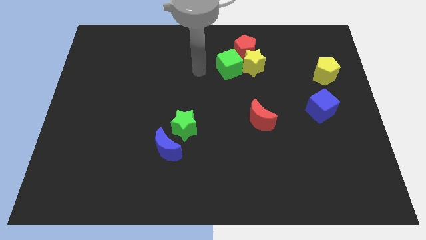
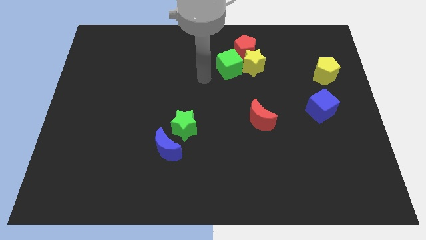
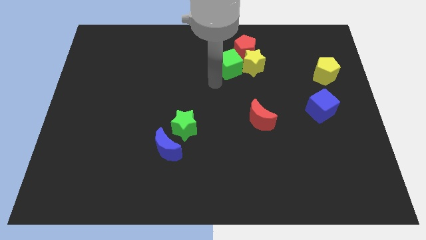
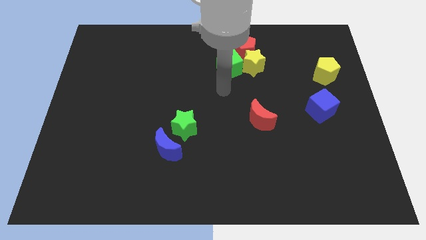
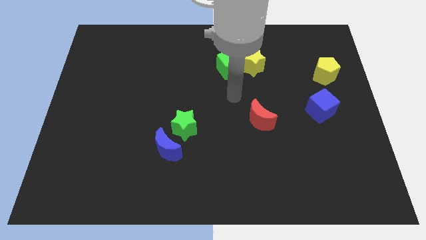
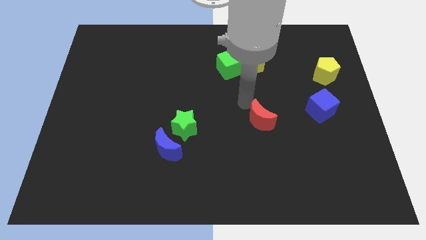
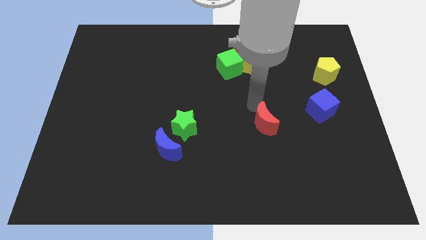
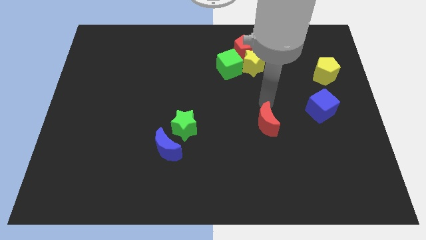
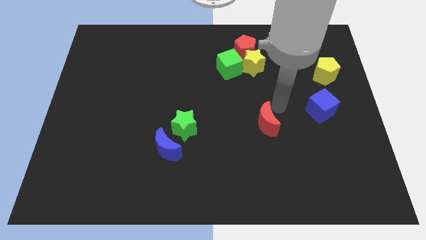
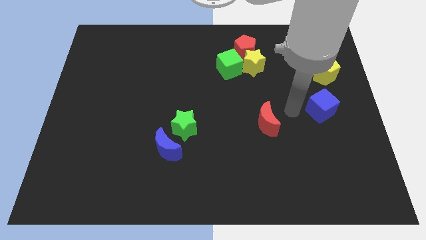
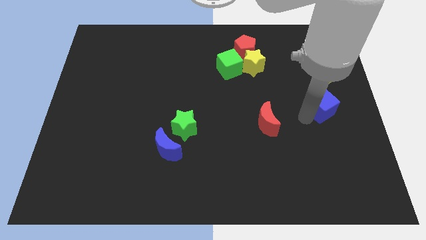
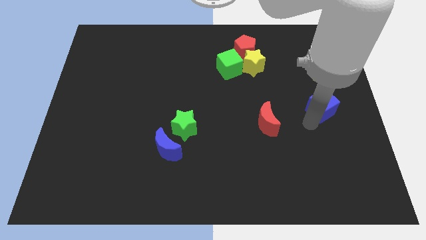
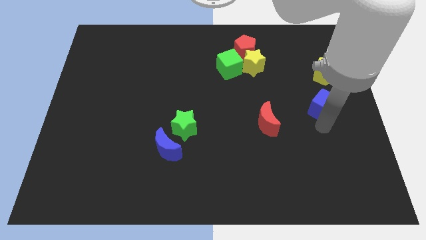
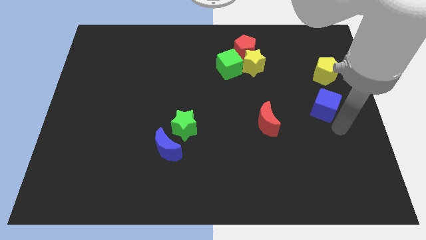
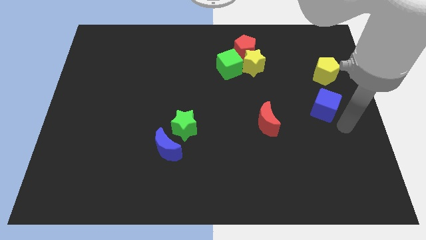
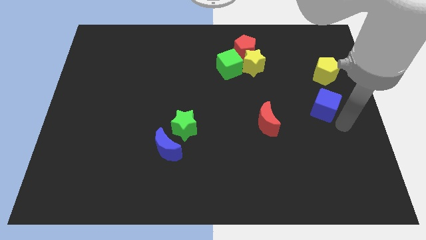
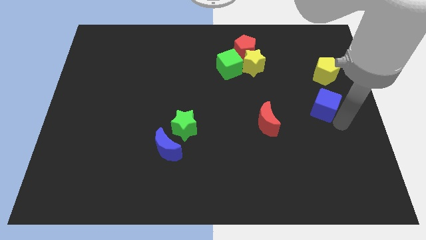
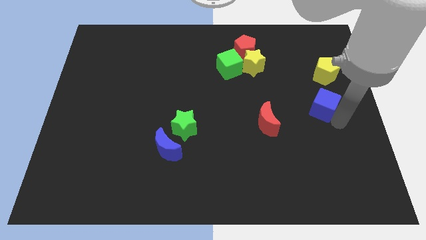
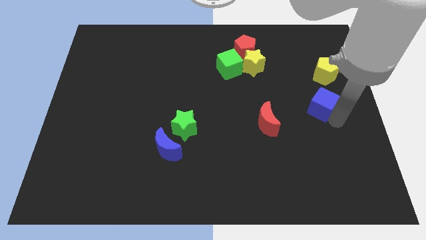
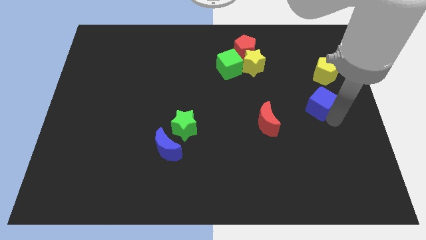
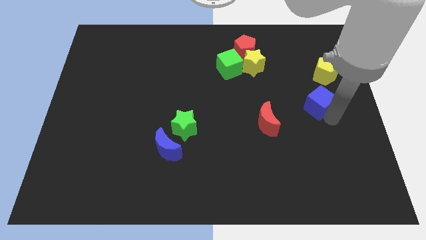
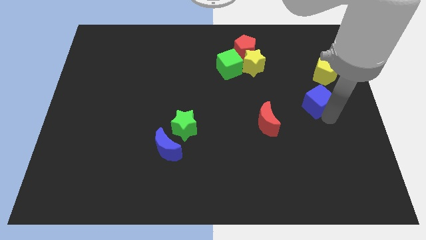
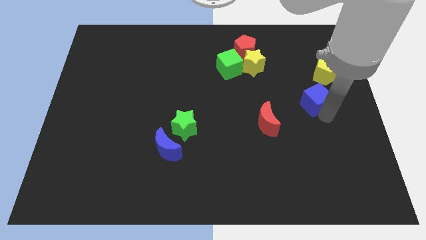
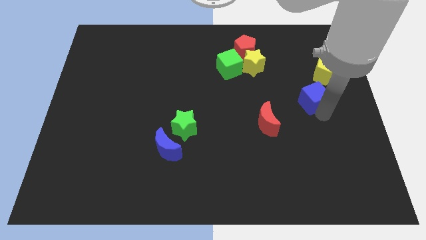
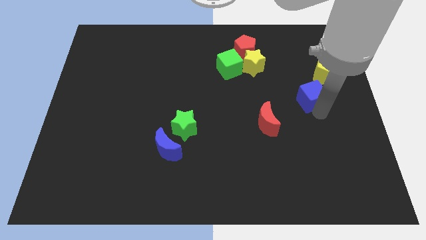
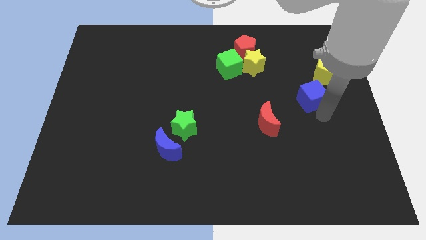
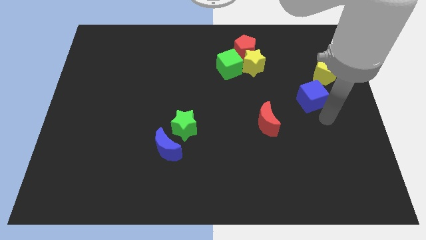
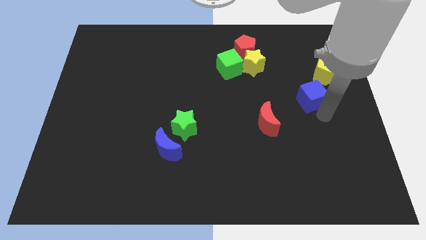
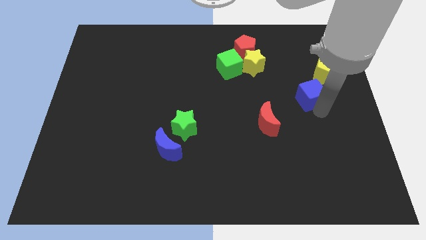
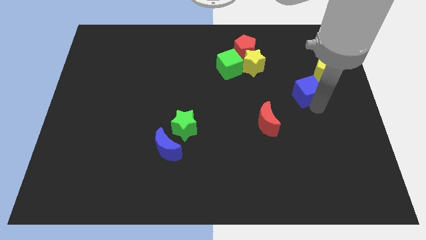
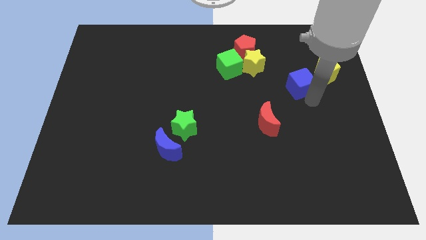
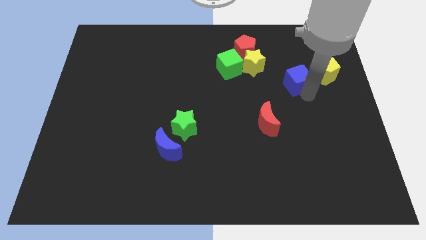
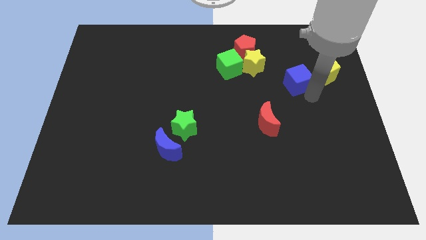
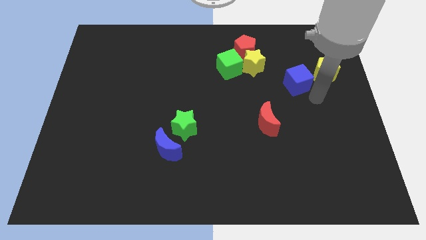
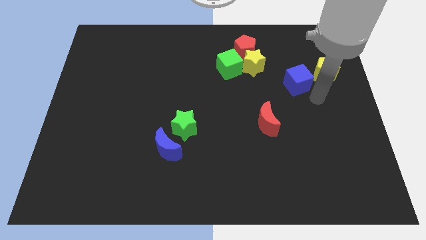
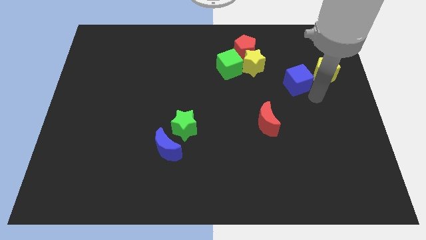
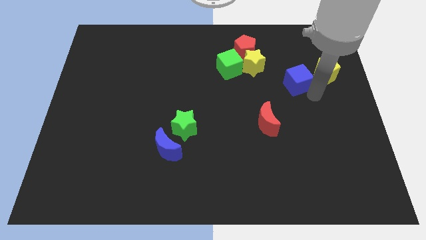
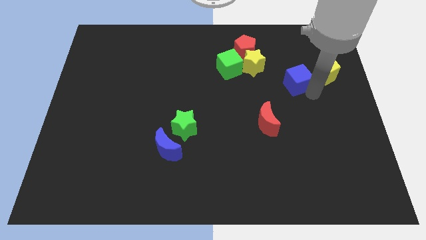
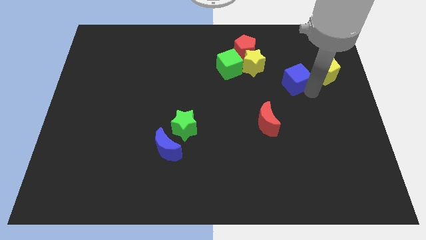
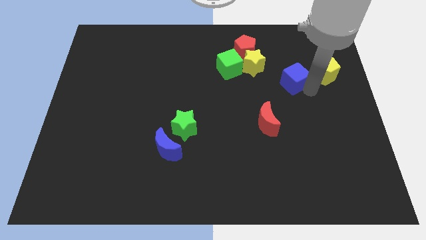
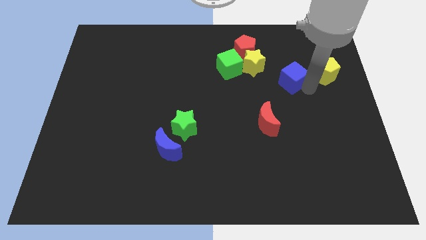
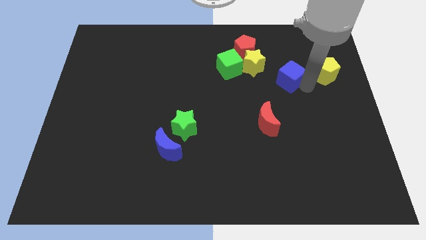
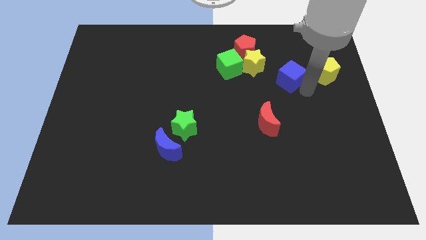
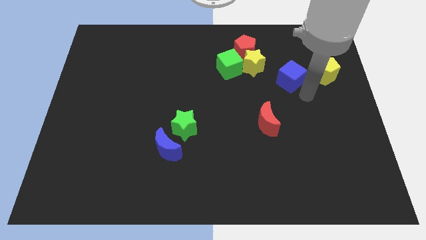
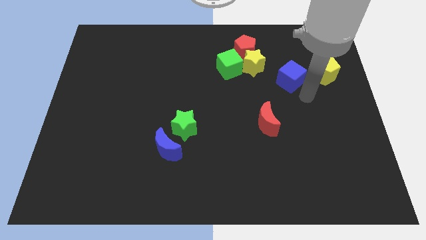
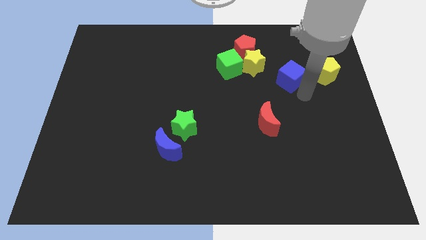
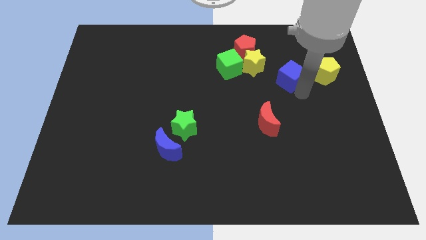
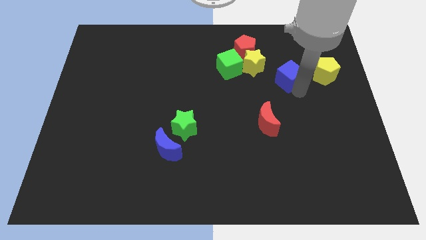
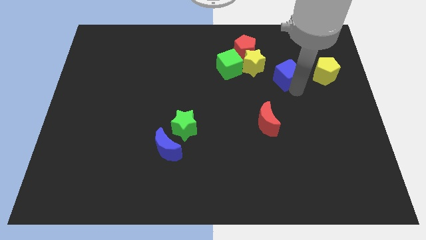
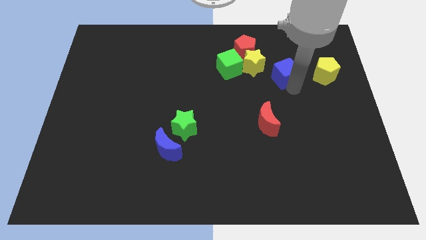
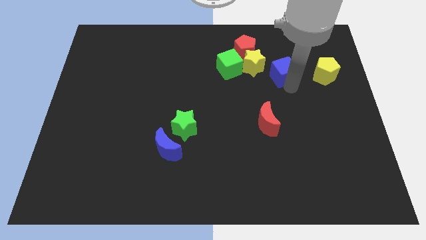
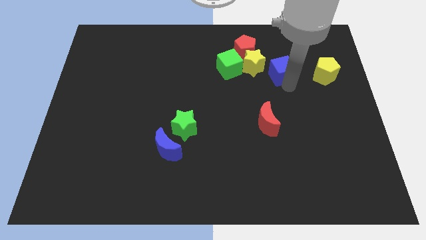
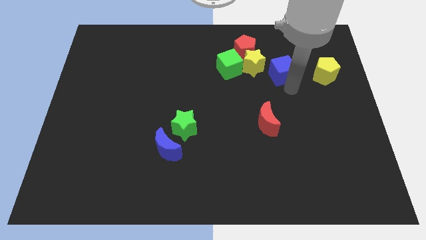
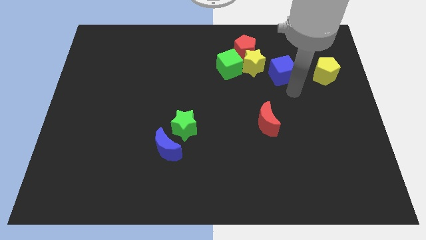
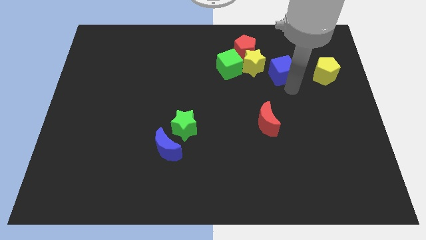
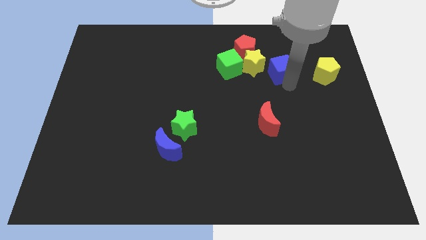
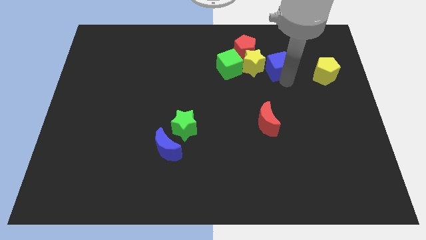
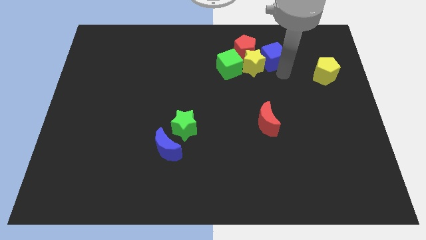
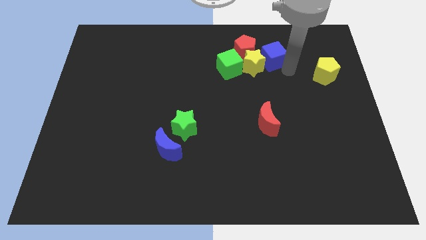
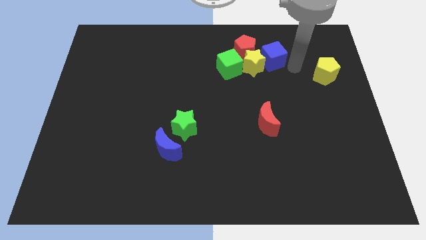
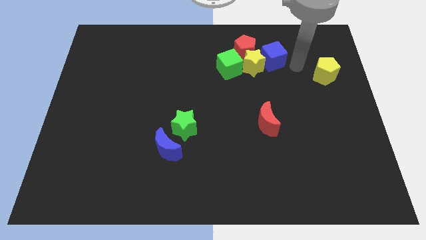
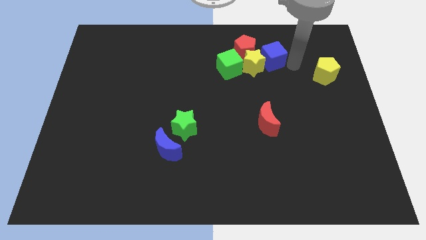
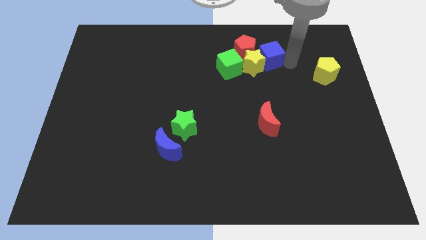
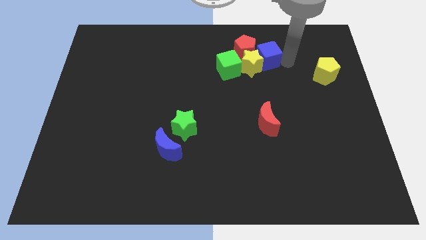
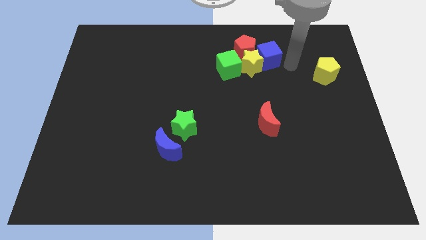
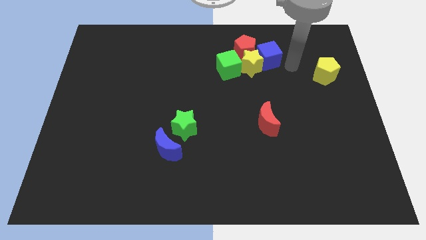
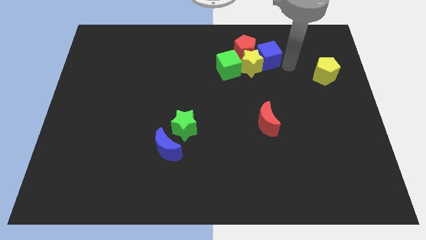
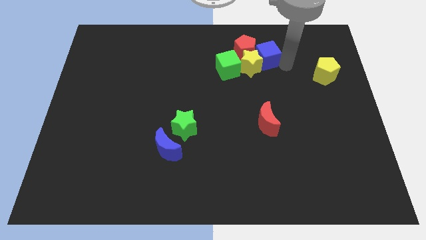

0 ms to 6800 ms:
push the blue cube close to the red pentagon

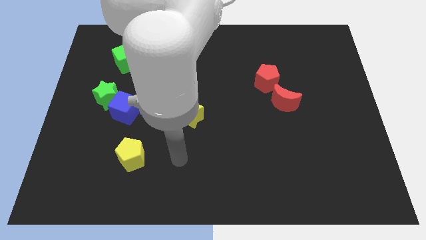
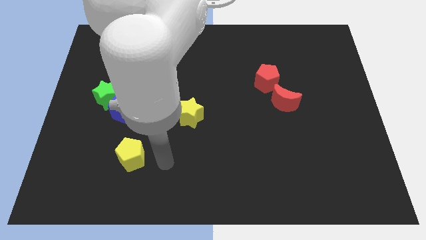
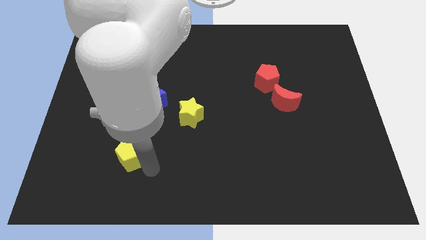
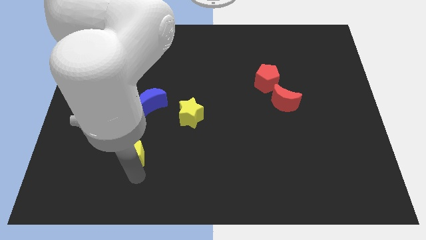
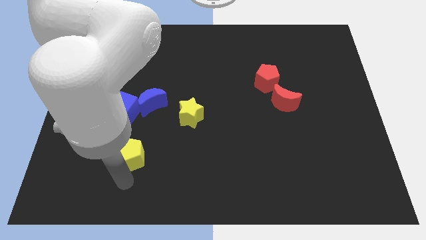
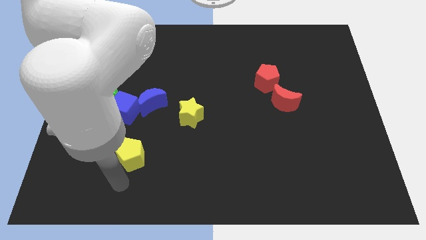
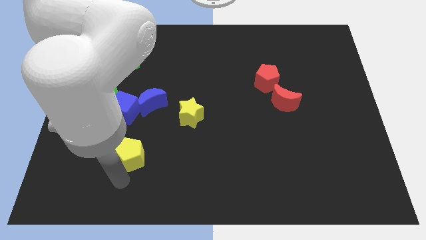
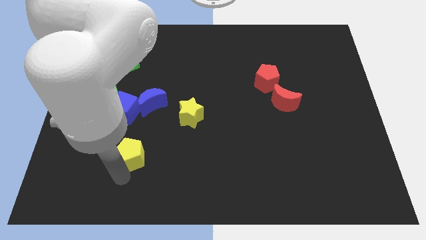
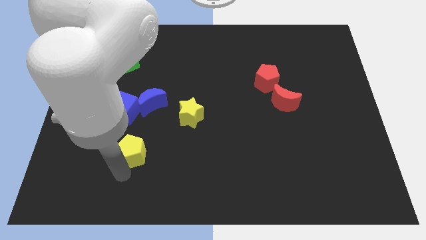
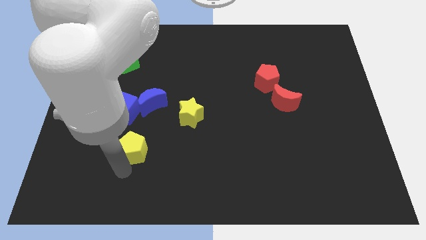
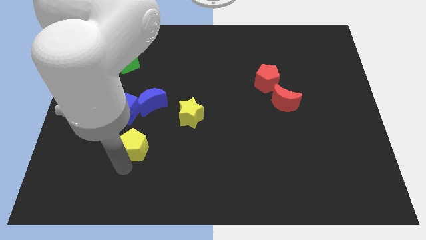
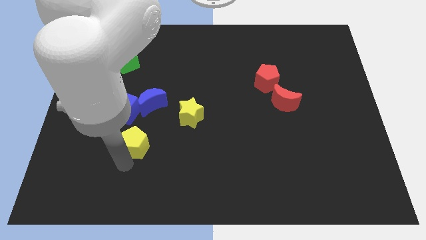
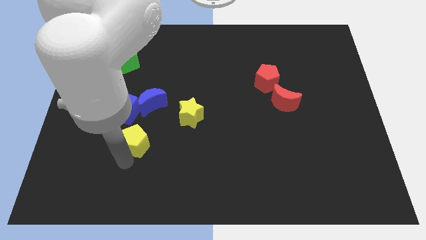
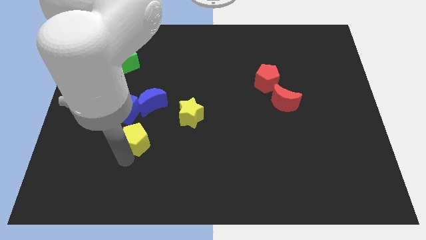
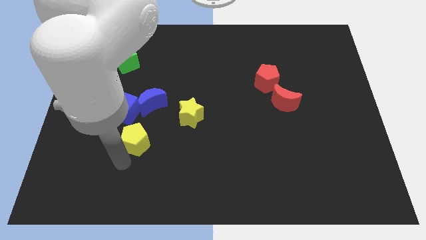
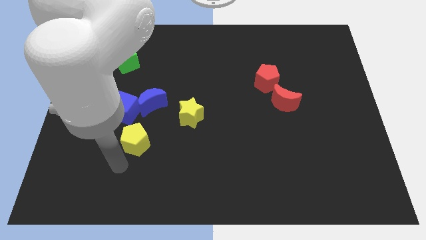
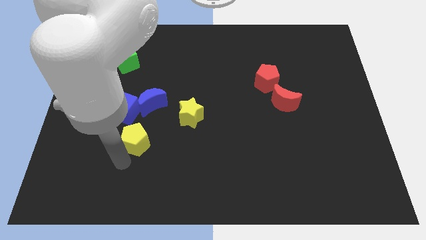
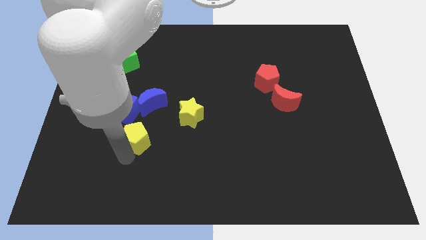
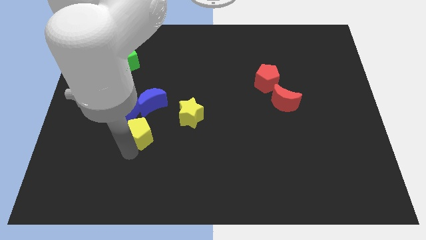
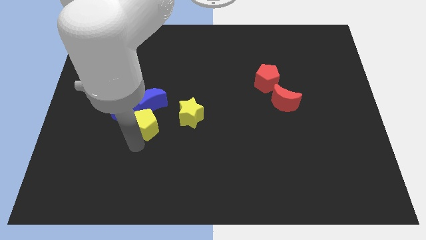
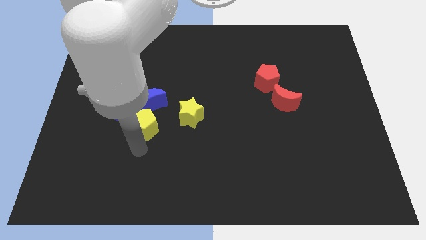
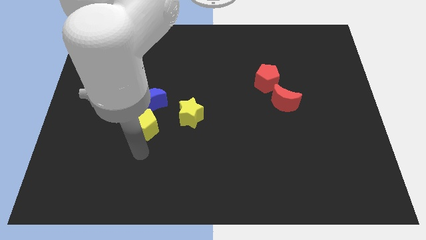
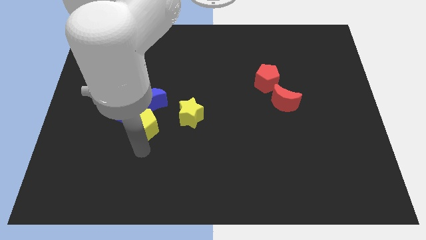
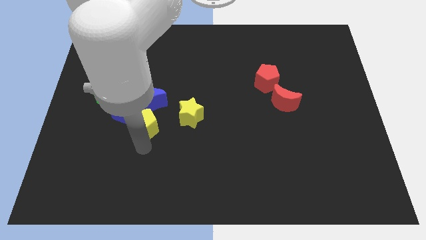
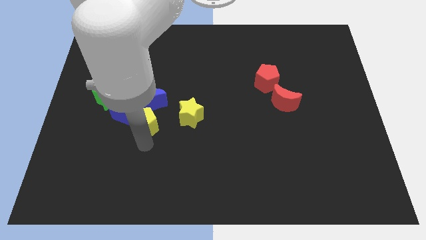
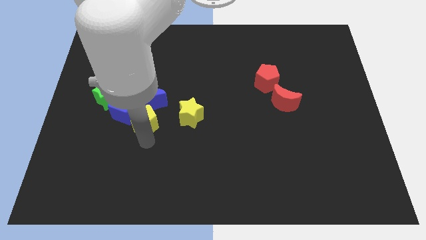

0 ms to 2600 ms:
push the yellow pentagon next to the blue moon
